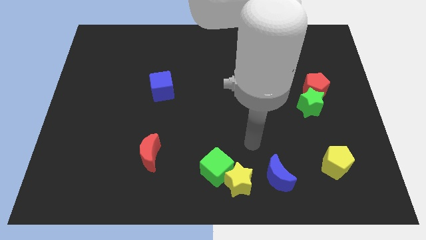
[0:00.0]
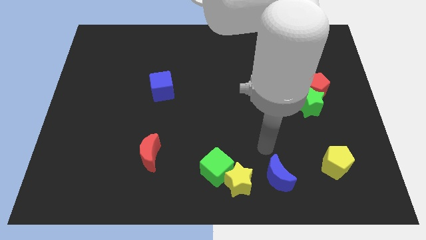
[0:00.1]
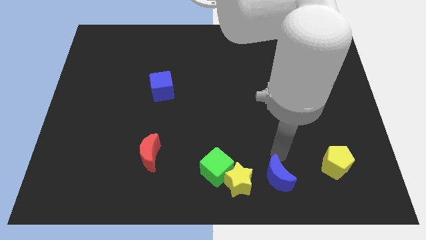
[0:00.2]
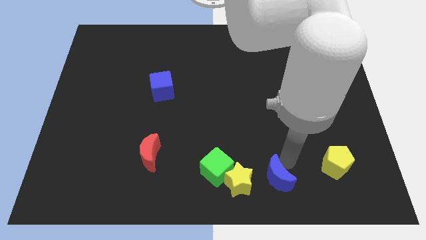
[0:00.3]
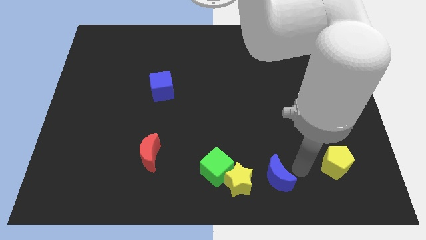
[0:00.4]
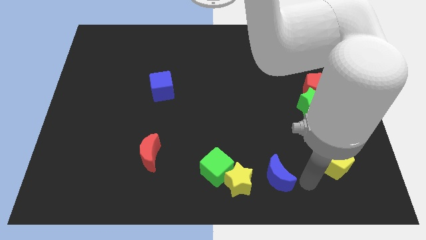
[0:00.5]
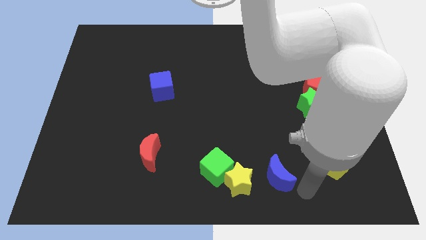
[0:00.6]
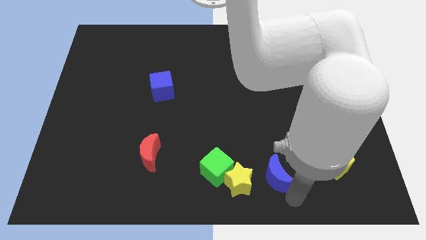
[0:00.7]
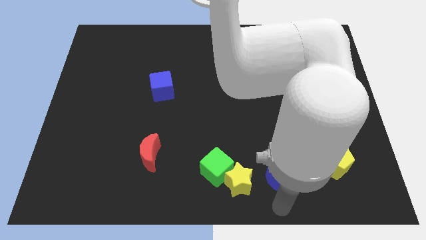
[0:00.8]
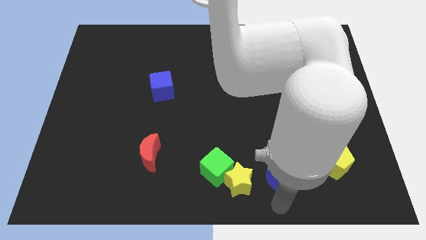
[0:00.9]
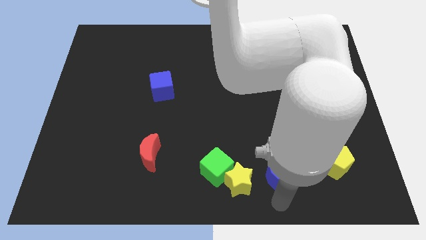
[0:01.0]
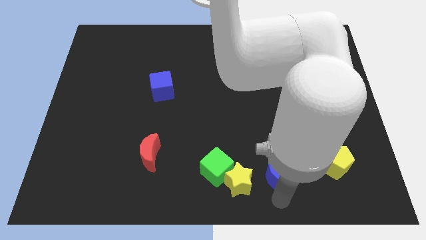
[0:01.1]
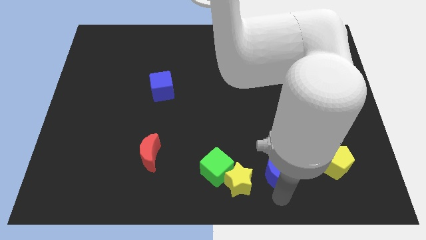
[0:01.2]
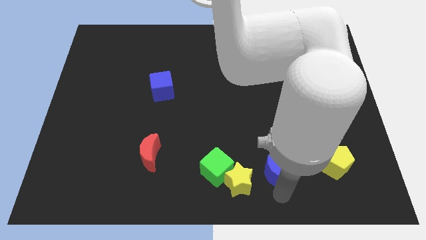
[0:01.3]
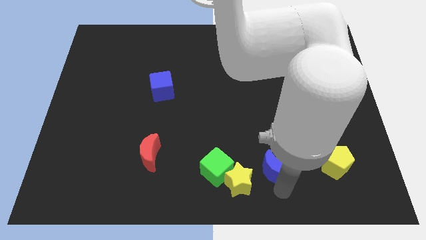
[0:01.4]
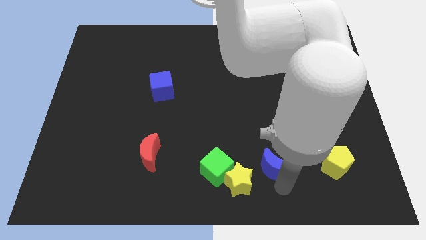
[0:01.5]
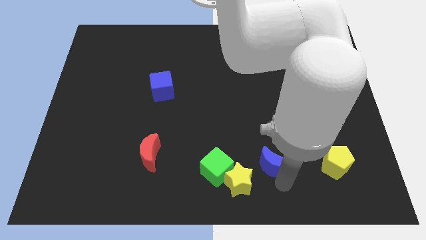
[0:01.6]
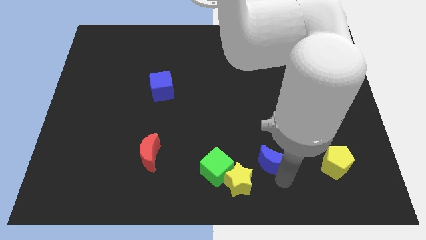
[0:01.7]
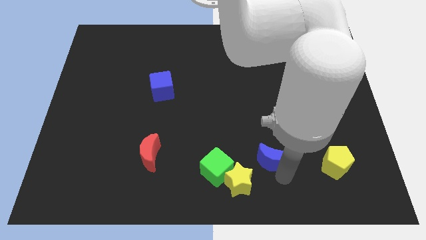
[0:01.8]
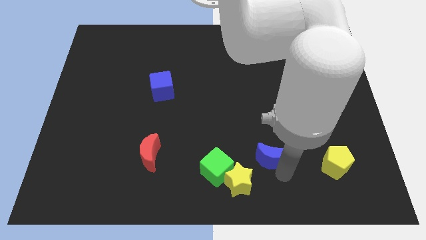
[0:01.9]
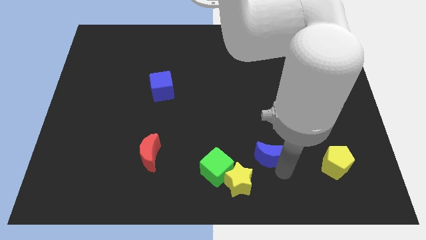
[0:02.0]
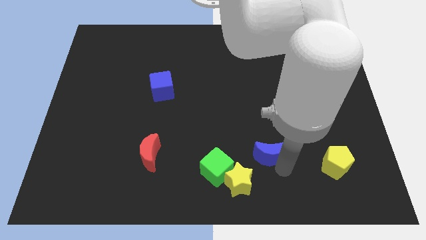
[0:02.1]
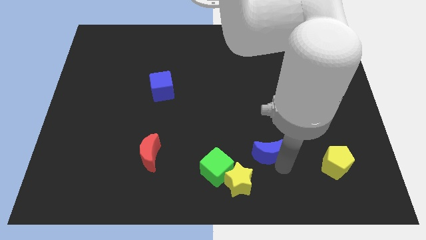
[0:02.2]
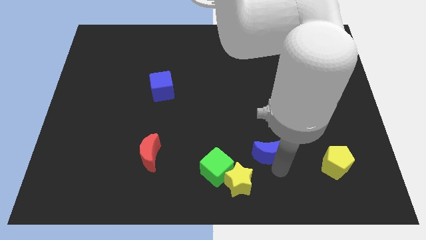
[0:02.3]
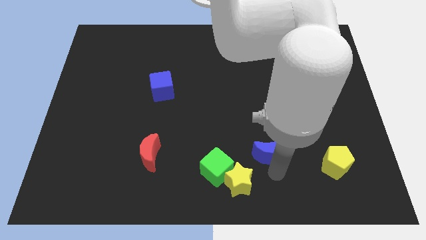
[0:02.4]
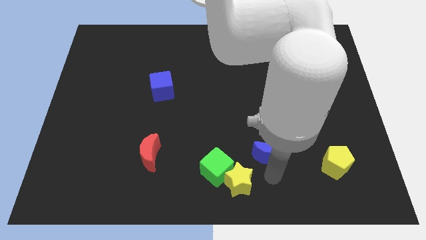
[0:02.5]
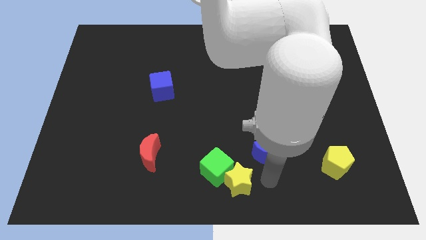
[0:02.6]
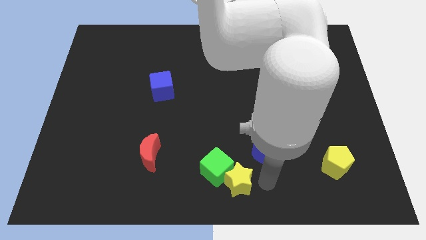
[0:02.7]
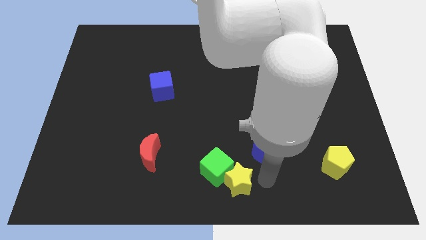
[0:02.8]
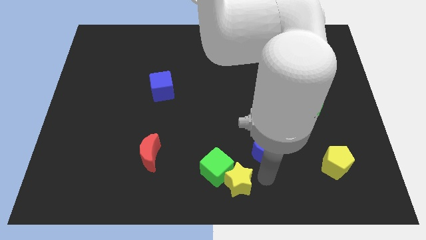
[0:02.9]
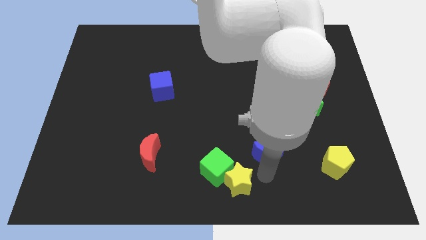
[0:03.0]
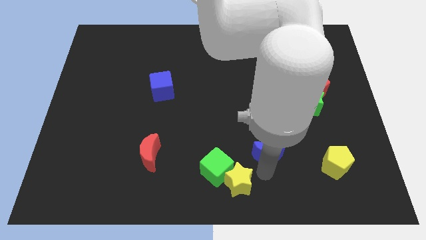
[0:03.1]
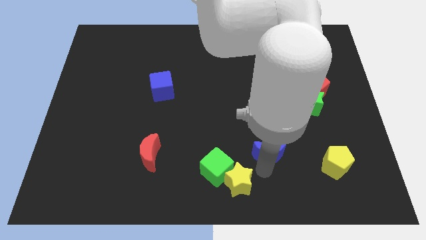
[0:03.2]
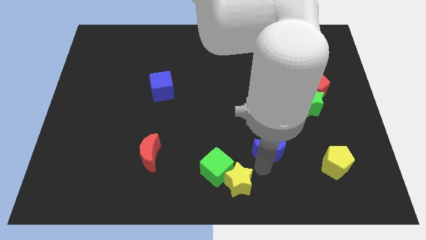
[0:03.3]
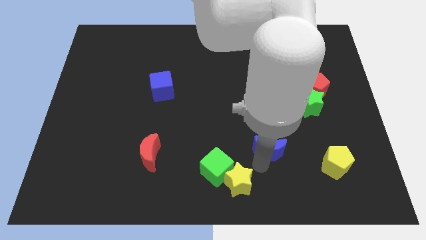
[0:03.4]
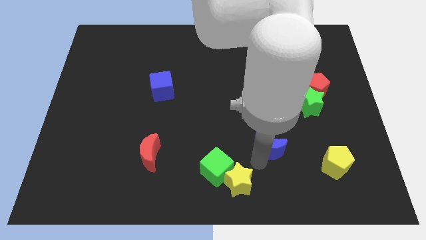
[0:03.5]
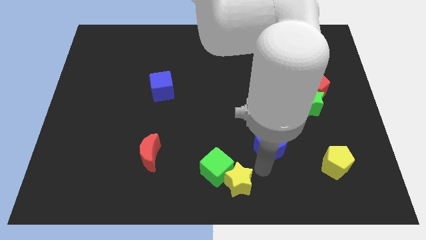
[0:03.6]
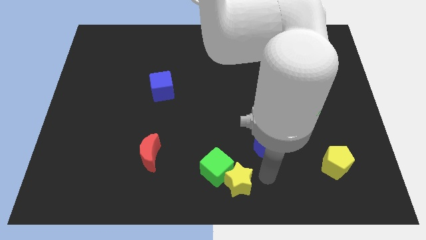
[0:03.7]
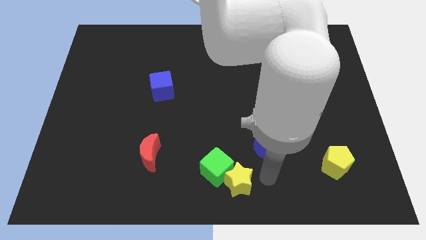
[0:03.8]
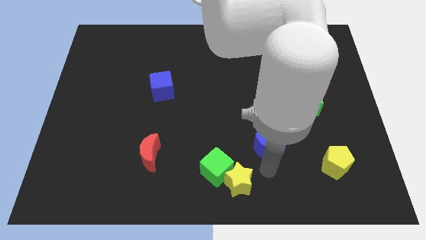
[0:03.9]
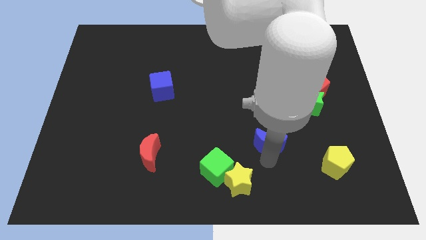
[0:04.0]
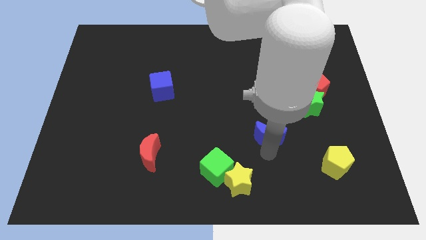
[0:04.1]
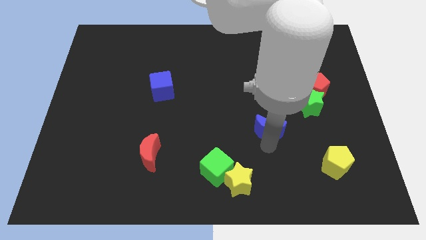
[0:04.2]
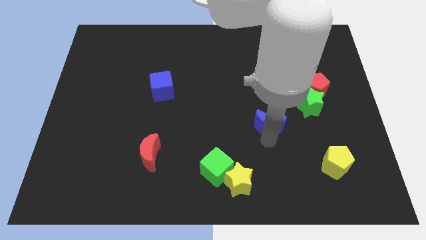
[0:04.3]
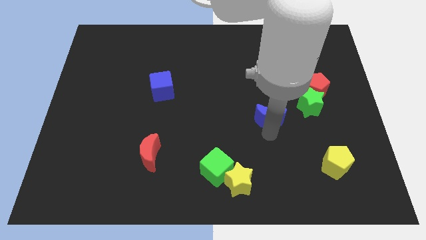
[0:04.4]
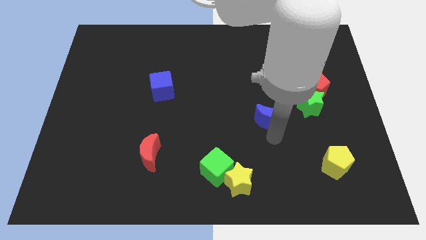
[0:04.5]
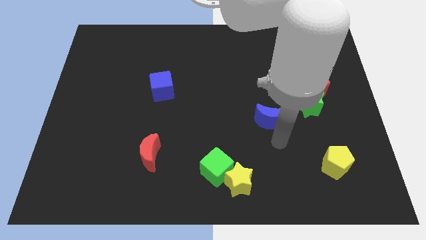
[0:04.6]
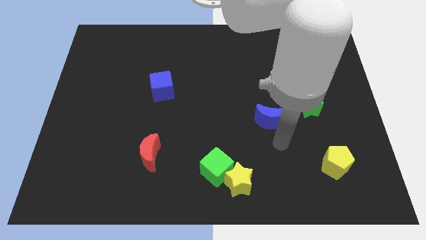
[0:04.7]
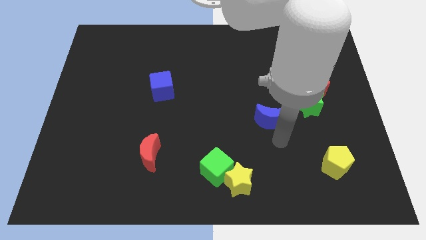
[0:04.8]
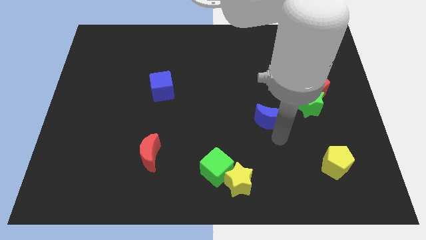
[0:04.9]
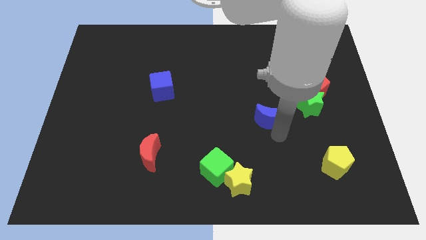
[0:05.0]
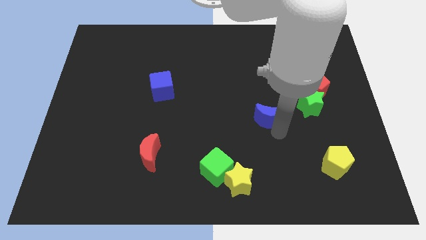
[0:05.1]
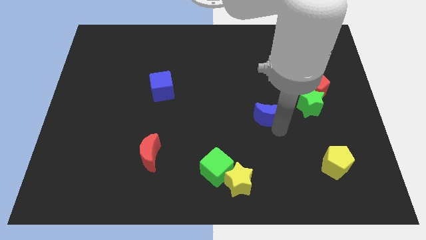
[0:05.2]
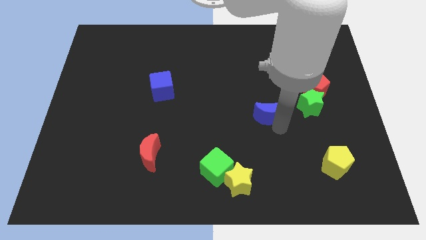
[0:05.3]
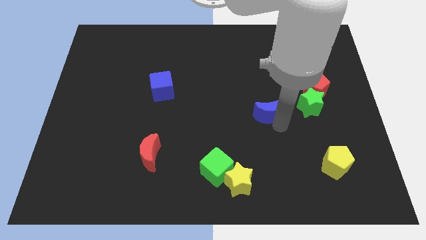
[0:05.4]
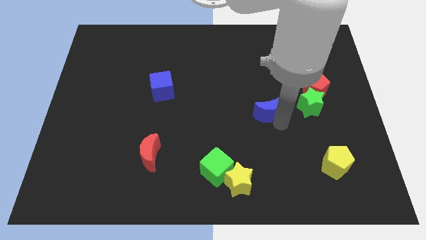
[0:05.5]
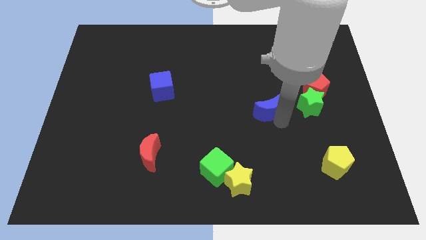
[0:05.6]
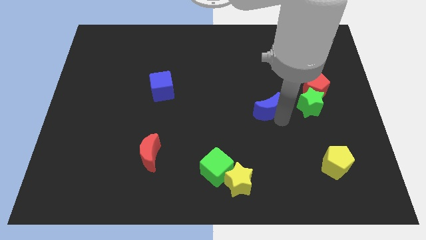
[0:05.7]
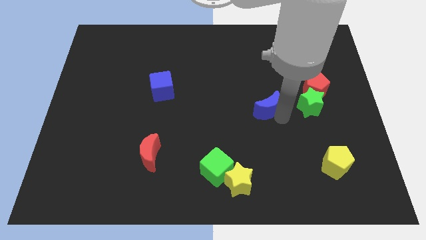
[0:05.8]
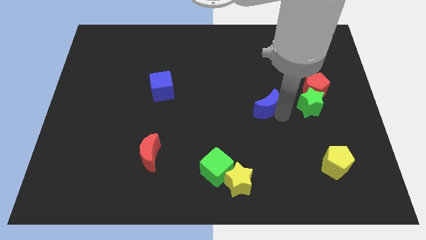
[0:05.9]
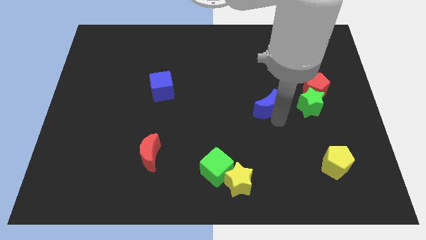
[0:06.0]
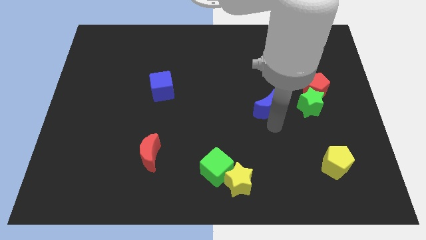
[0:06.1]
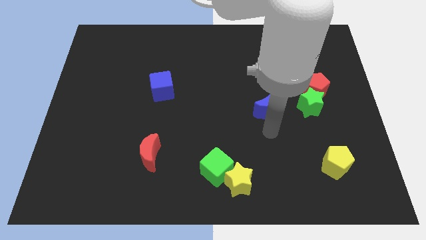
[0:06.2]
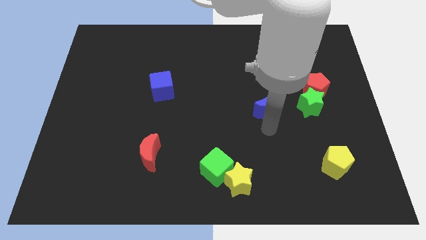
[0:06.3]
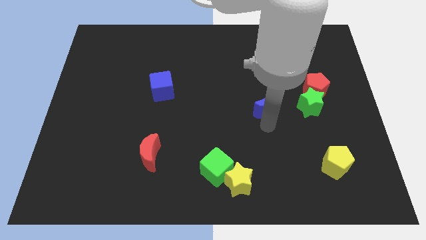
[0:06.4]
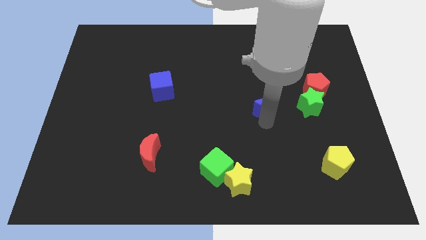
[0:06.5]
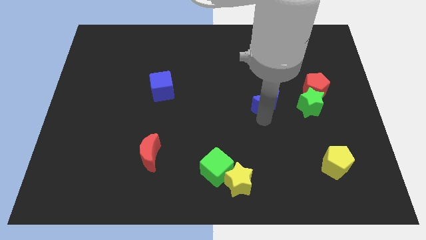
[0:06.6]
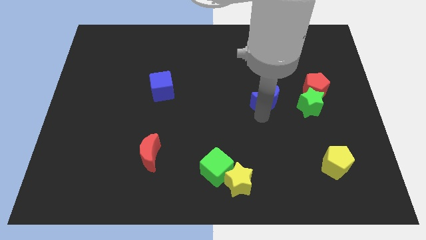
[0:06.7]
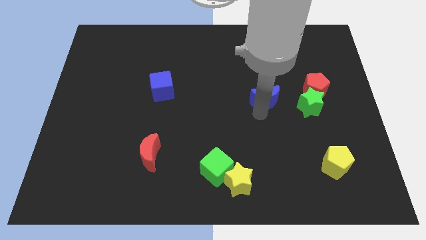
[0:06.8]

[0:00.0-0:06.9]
push the blue moon up

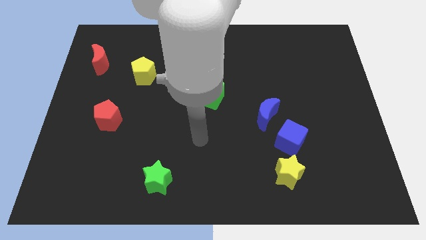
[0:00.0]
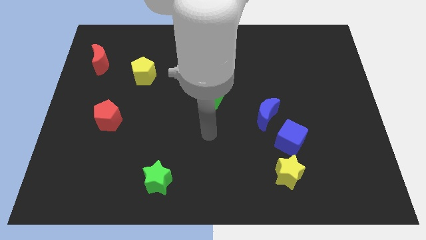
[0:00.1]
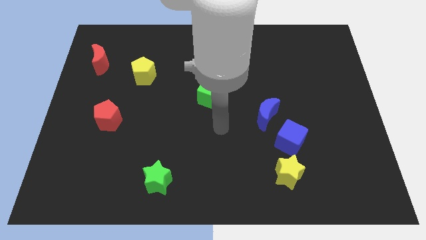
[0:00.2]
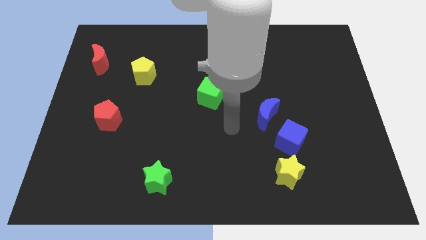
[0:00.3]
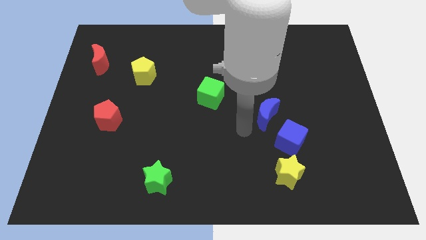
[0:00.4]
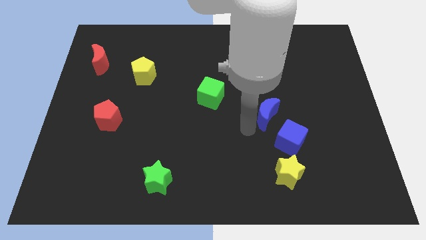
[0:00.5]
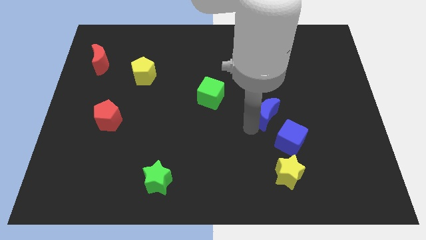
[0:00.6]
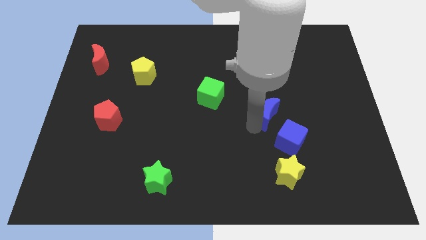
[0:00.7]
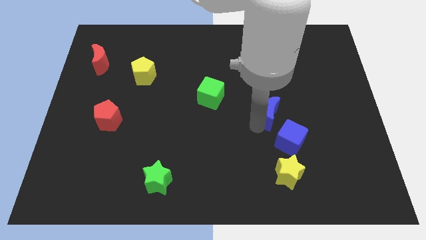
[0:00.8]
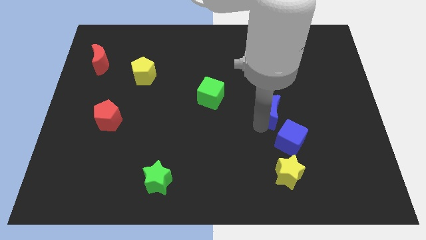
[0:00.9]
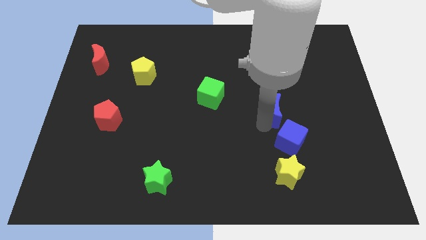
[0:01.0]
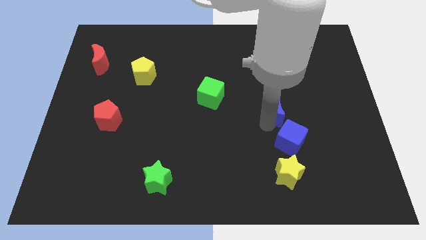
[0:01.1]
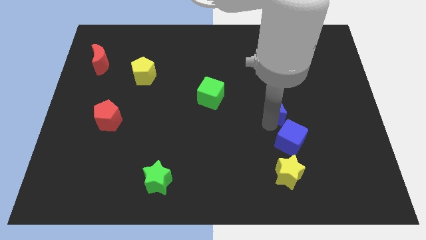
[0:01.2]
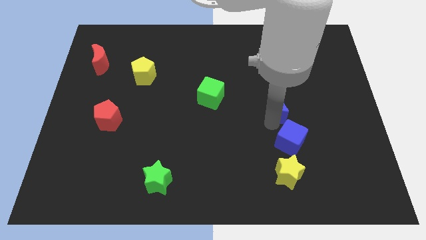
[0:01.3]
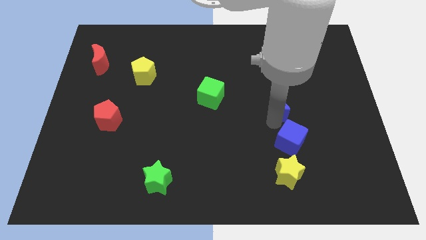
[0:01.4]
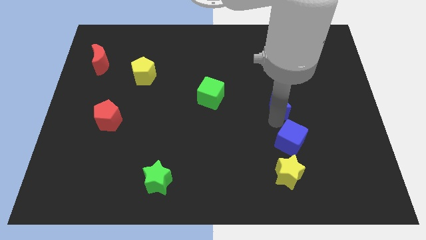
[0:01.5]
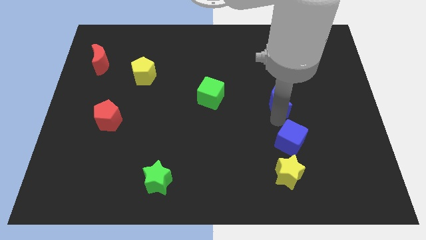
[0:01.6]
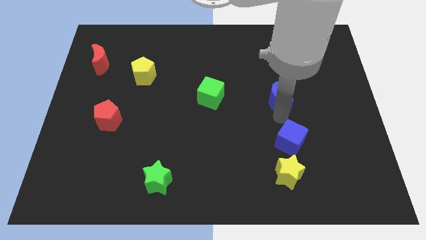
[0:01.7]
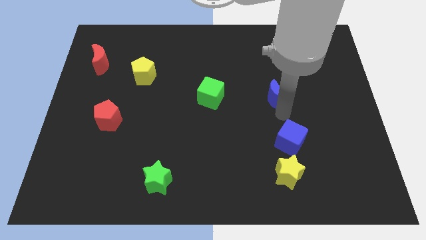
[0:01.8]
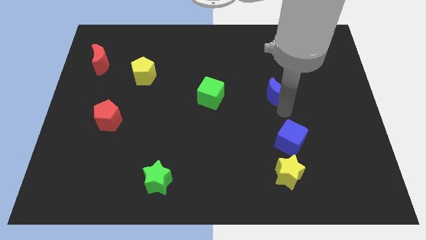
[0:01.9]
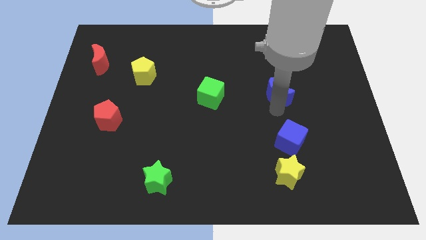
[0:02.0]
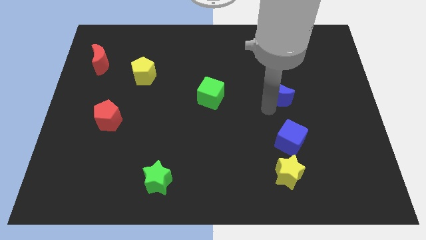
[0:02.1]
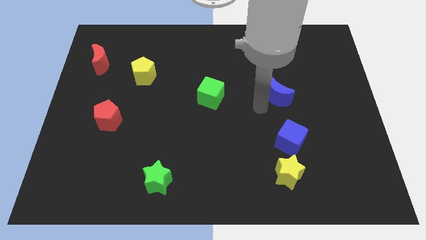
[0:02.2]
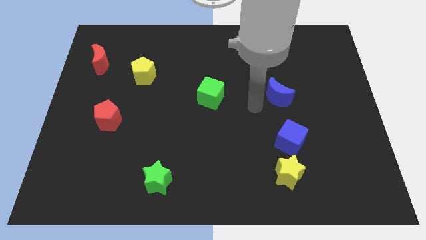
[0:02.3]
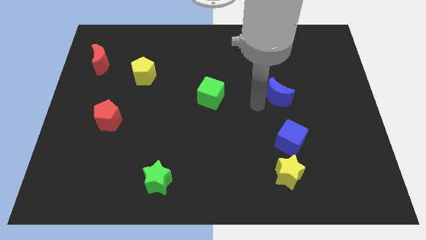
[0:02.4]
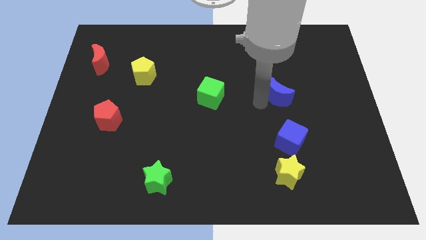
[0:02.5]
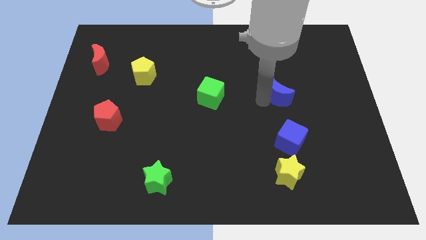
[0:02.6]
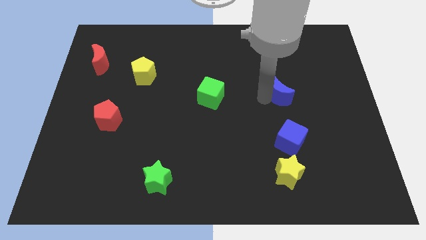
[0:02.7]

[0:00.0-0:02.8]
slightly slide the blue moon upwards and then right
